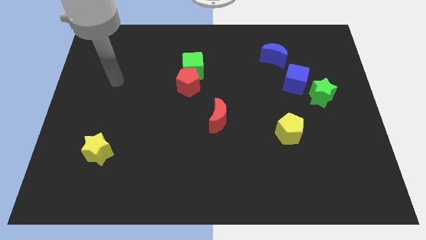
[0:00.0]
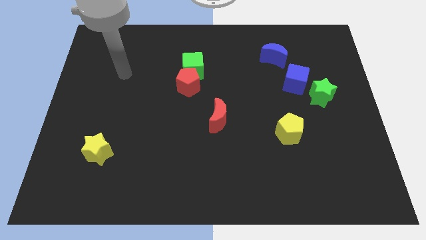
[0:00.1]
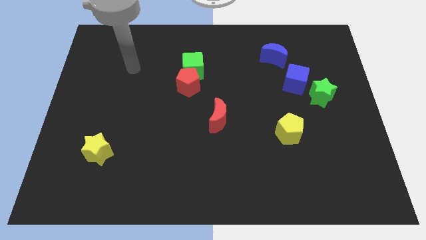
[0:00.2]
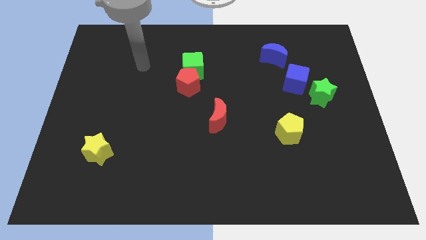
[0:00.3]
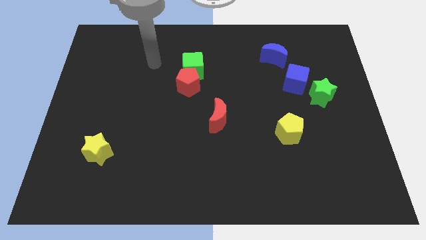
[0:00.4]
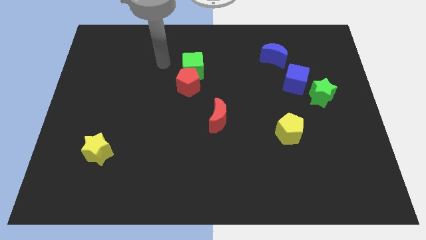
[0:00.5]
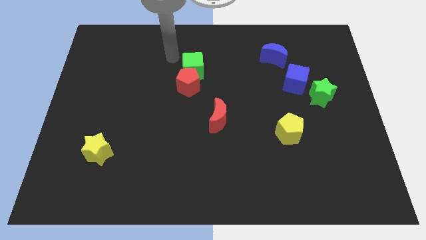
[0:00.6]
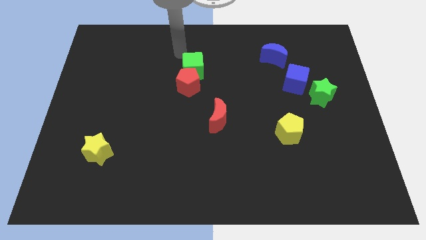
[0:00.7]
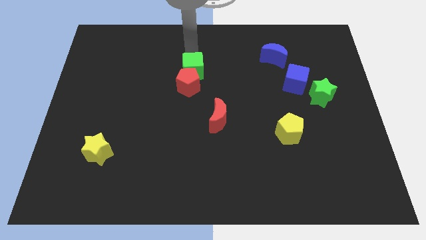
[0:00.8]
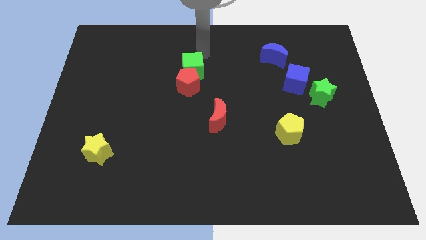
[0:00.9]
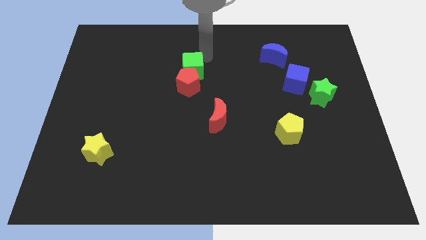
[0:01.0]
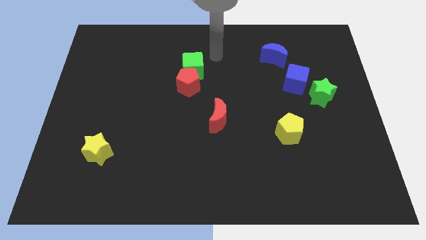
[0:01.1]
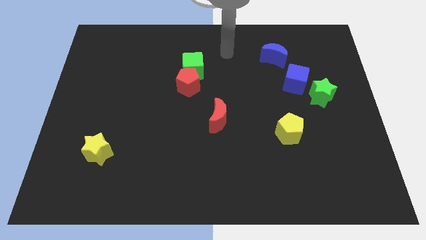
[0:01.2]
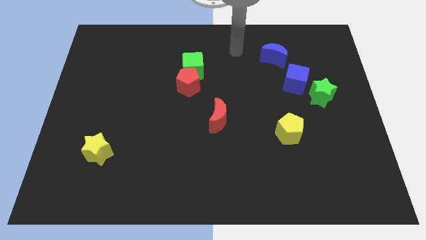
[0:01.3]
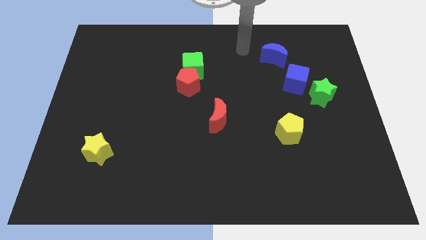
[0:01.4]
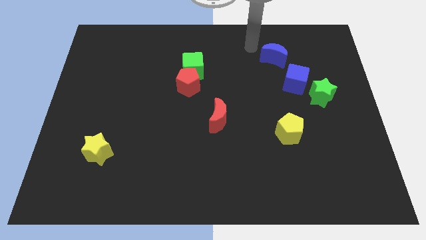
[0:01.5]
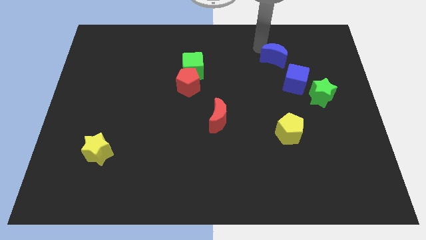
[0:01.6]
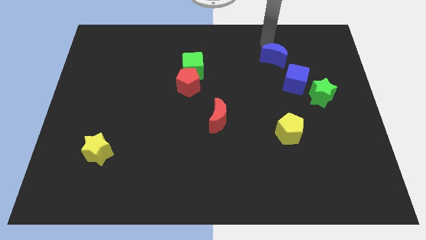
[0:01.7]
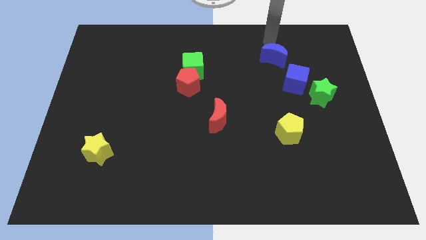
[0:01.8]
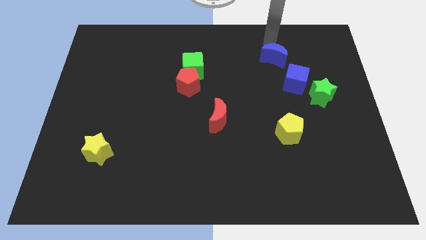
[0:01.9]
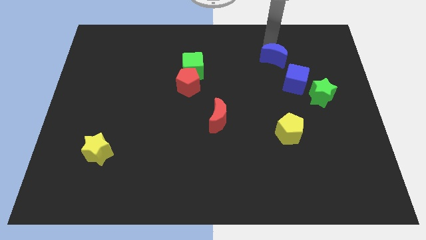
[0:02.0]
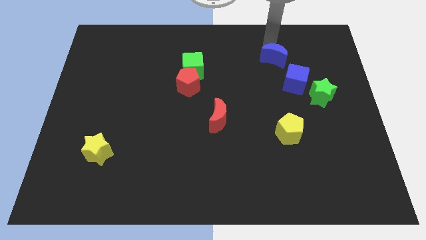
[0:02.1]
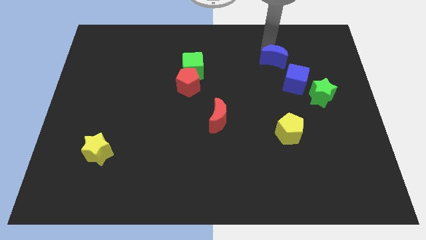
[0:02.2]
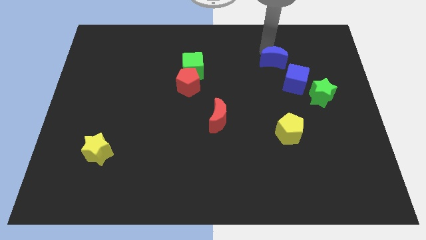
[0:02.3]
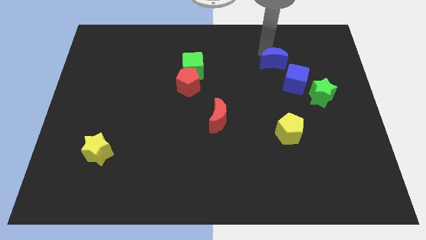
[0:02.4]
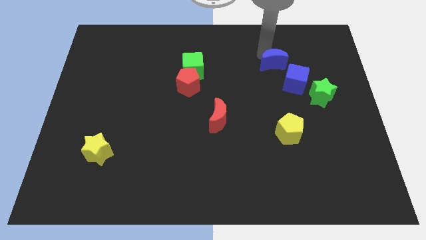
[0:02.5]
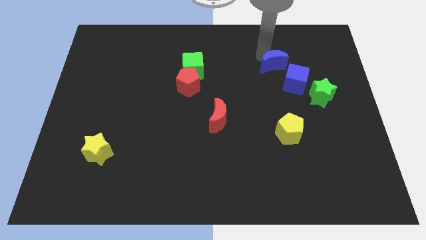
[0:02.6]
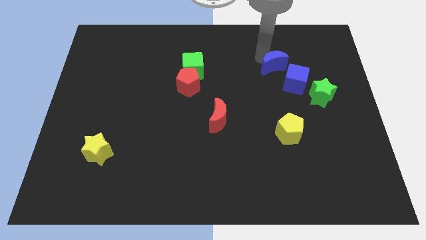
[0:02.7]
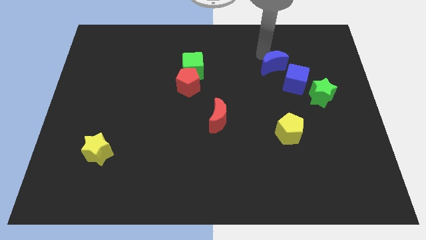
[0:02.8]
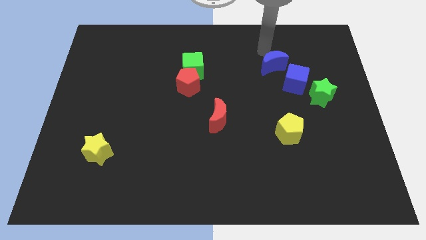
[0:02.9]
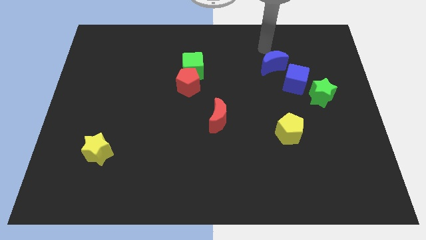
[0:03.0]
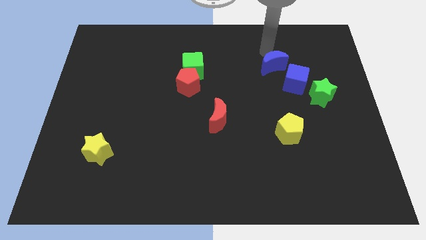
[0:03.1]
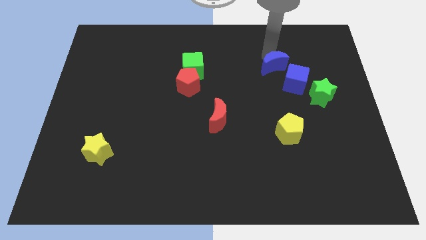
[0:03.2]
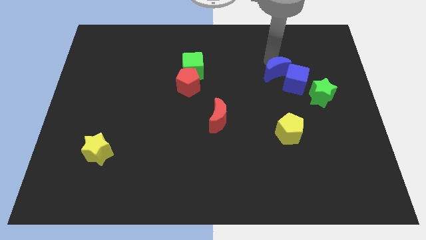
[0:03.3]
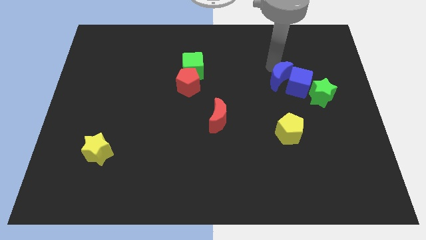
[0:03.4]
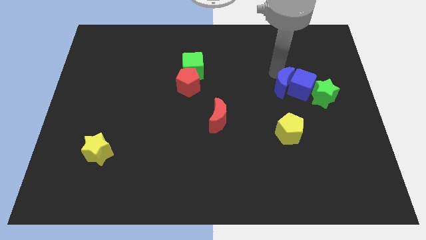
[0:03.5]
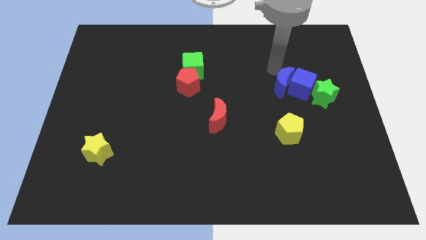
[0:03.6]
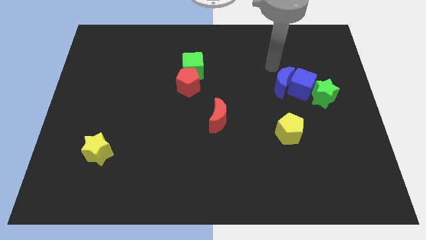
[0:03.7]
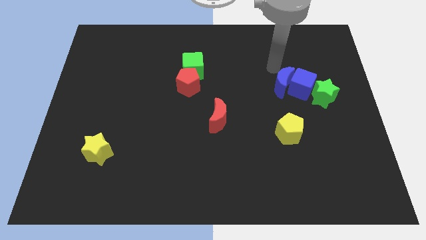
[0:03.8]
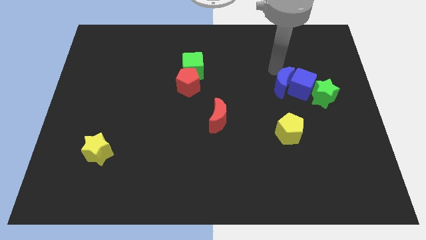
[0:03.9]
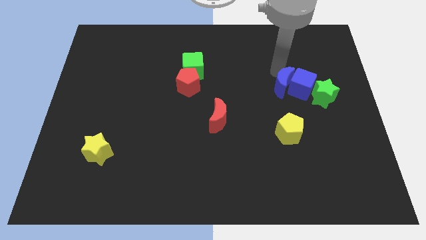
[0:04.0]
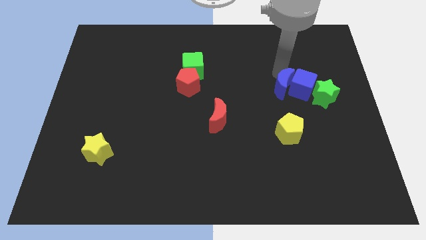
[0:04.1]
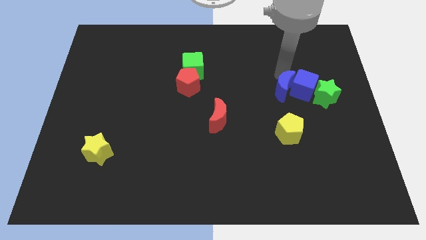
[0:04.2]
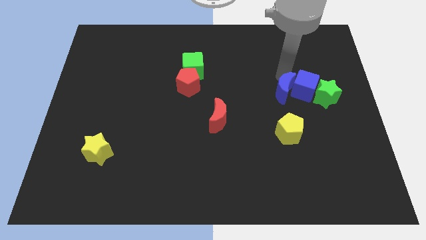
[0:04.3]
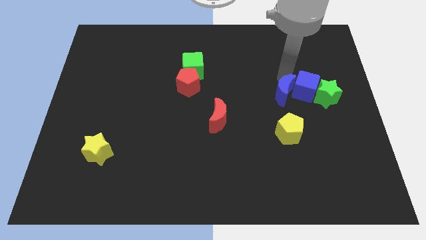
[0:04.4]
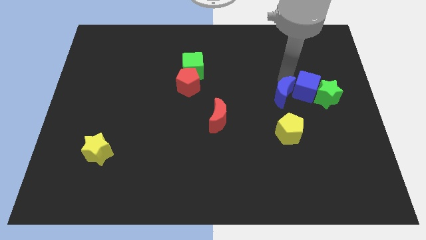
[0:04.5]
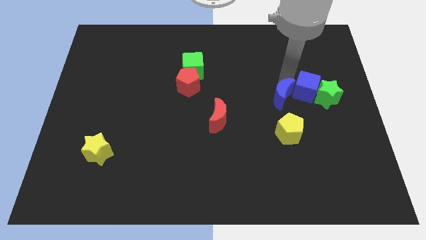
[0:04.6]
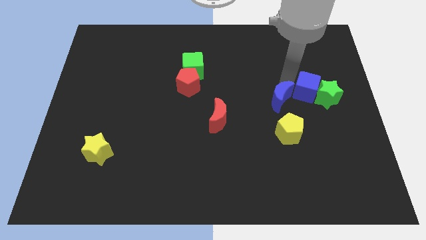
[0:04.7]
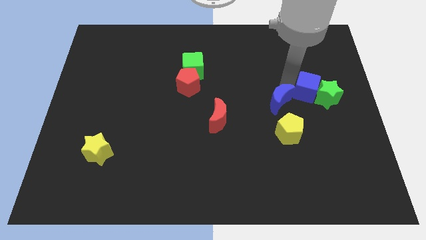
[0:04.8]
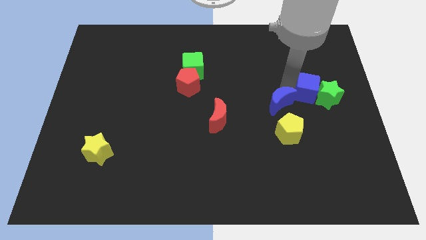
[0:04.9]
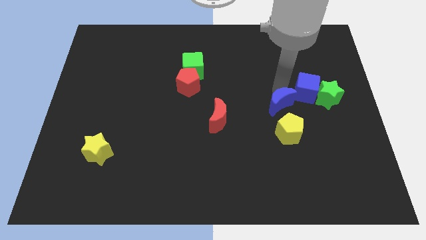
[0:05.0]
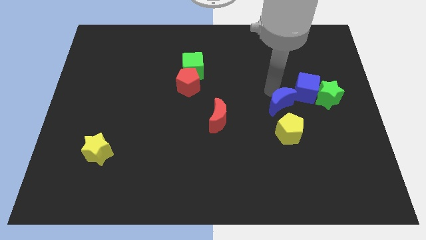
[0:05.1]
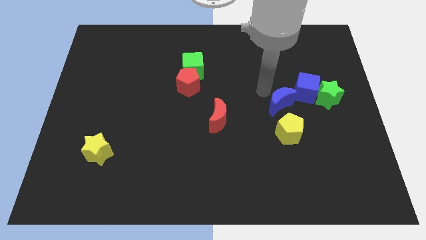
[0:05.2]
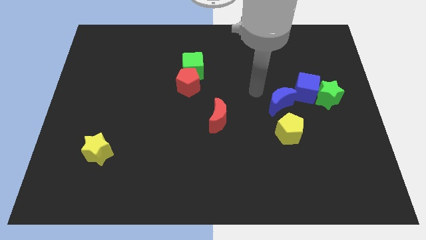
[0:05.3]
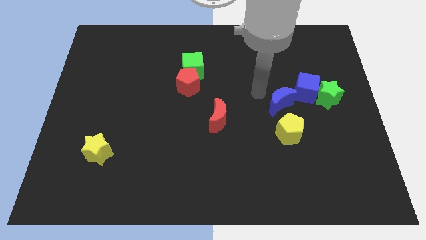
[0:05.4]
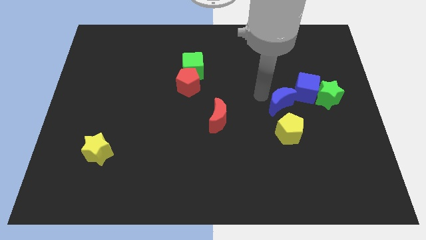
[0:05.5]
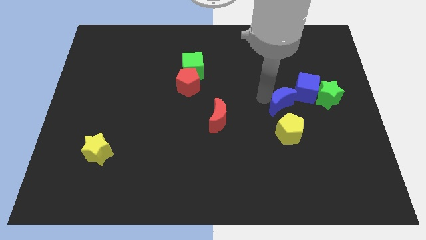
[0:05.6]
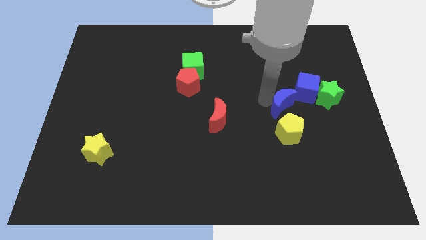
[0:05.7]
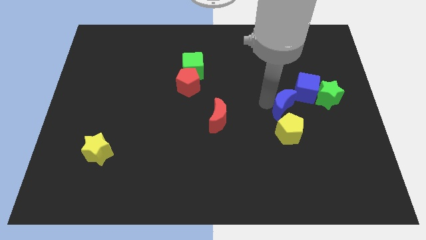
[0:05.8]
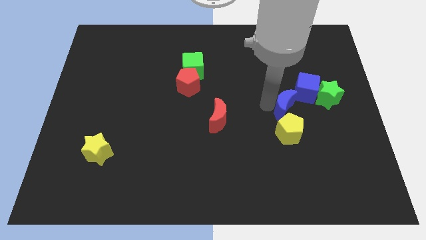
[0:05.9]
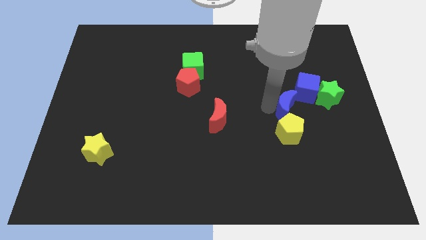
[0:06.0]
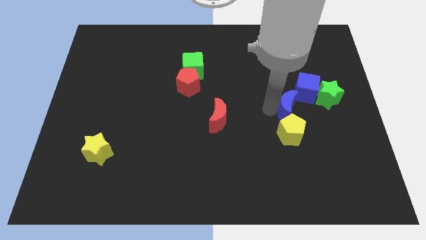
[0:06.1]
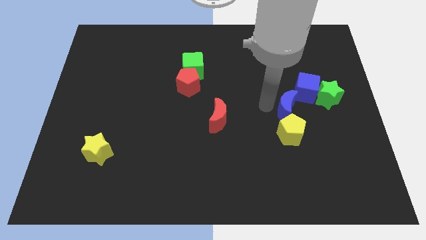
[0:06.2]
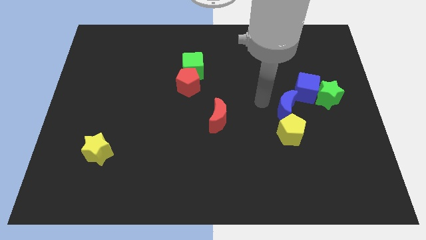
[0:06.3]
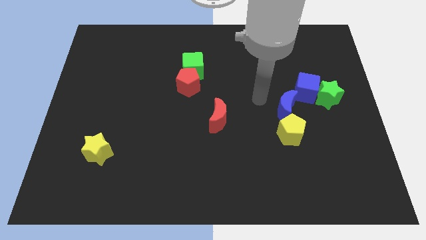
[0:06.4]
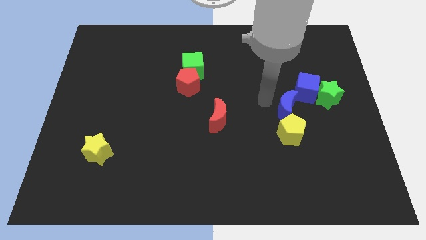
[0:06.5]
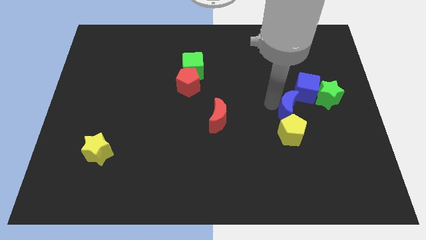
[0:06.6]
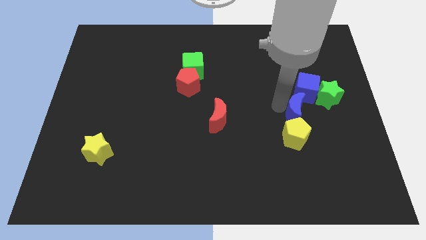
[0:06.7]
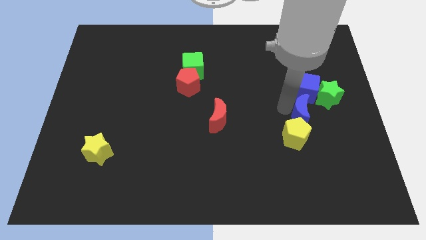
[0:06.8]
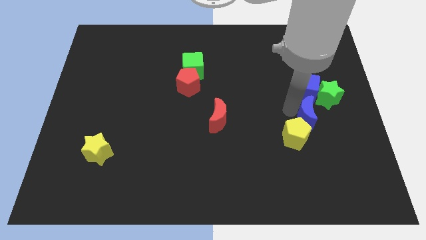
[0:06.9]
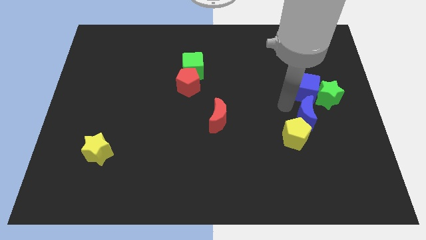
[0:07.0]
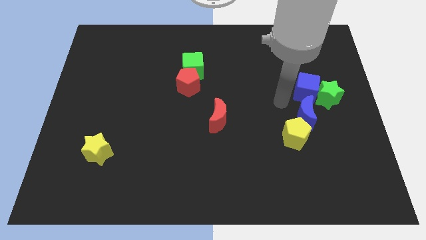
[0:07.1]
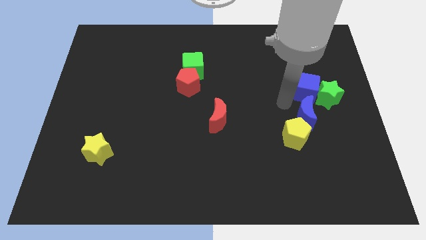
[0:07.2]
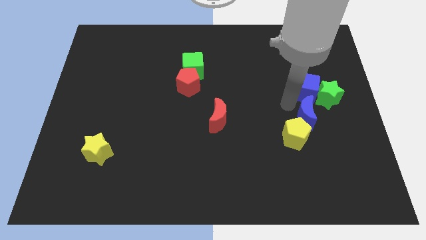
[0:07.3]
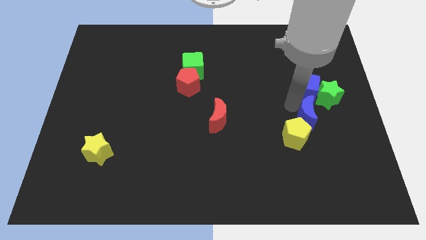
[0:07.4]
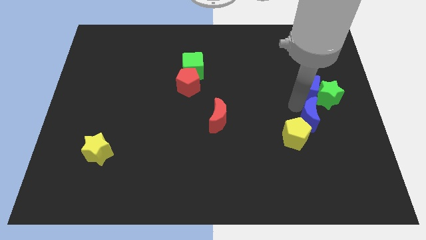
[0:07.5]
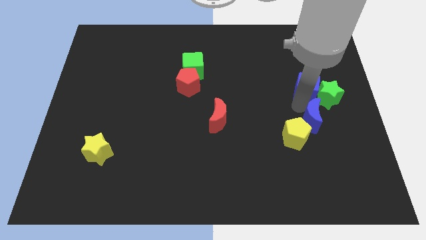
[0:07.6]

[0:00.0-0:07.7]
move the blue moon to the bottom side of the green star
